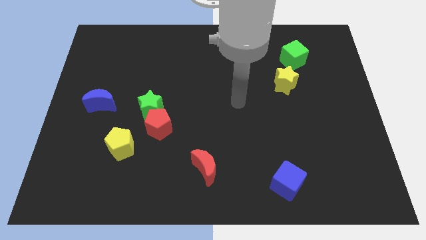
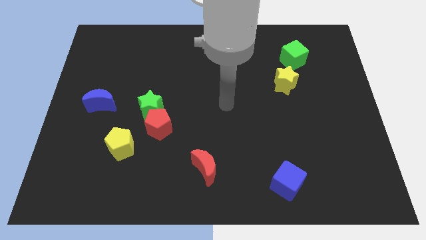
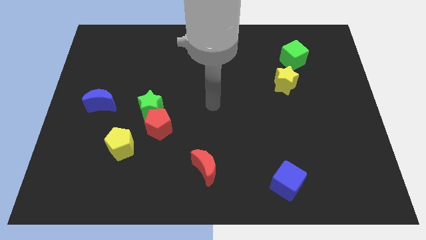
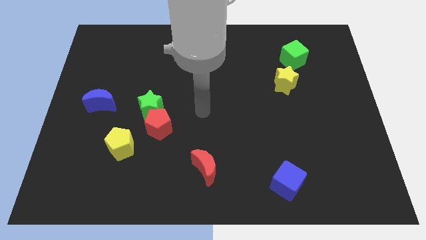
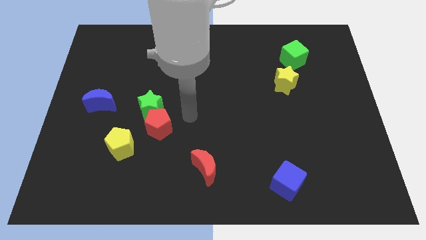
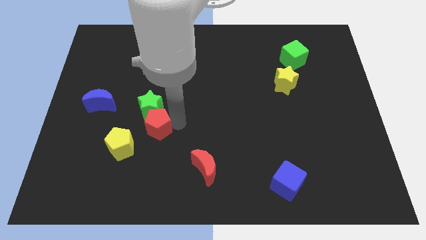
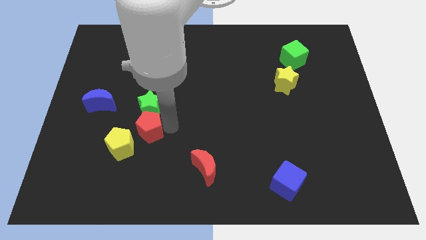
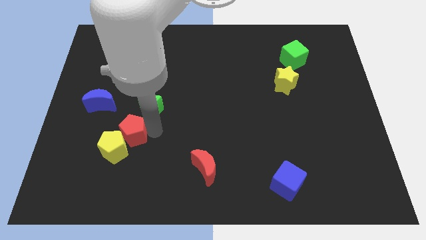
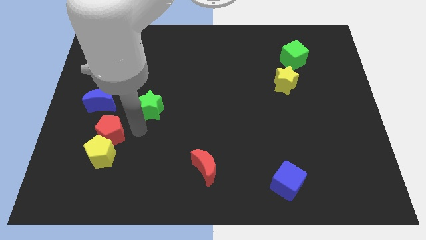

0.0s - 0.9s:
move the green star away from the red pentagon

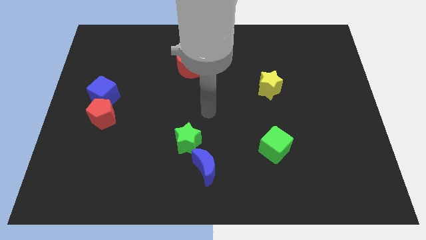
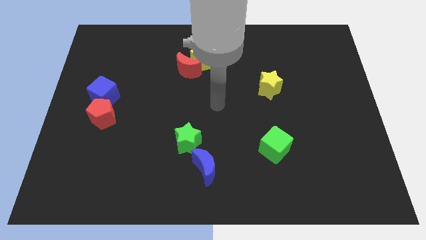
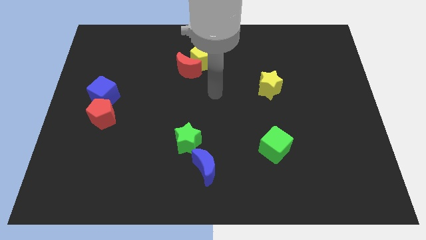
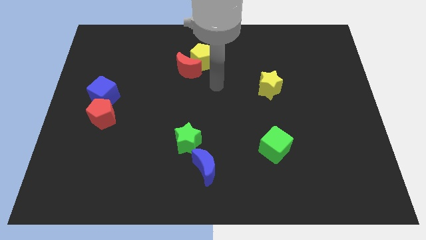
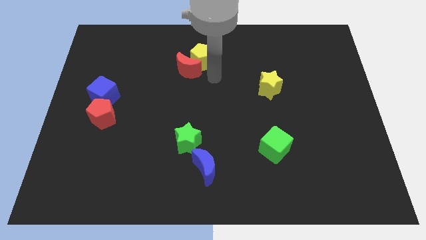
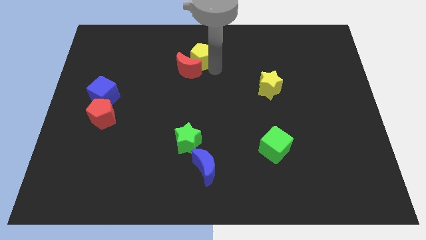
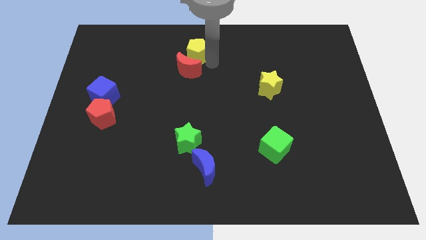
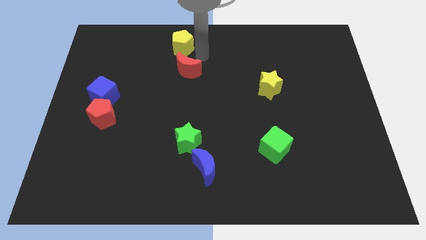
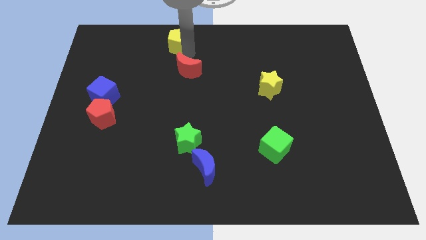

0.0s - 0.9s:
separate the red moon from the yellow pentagon

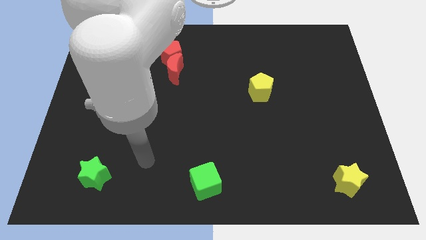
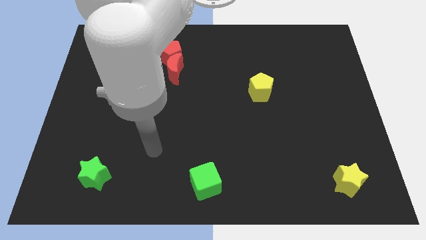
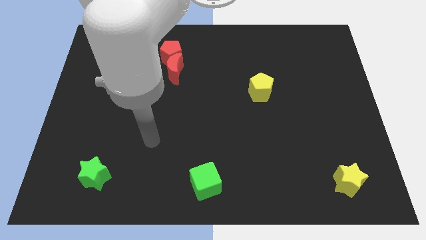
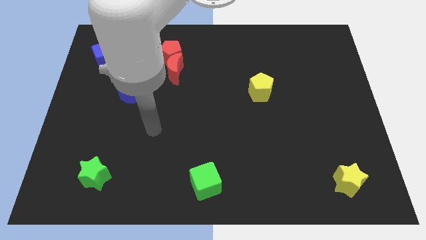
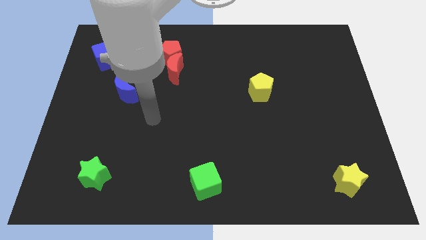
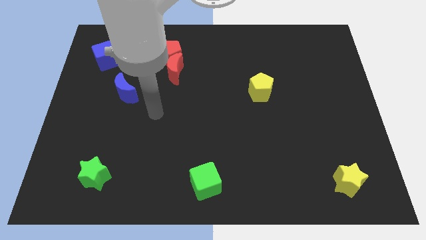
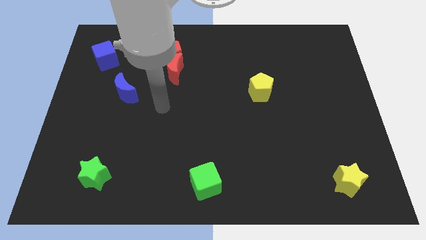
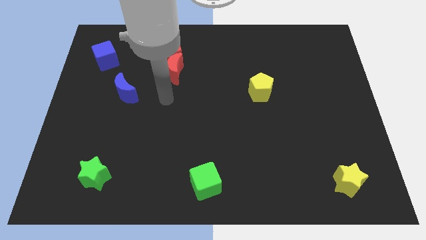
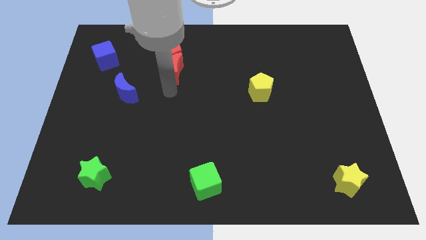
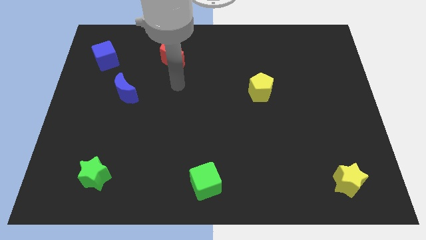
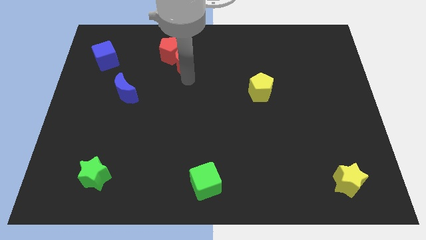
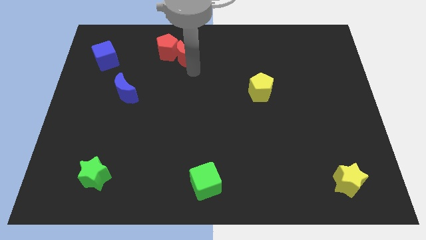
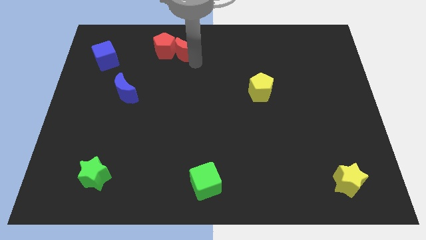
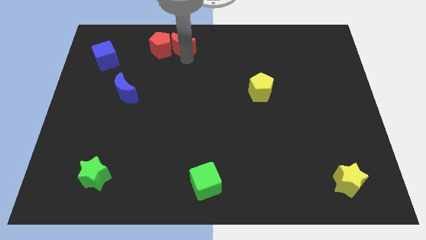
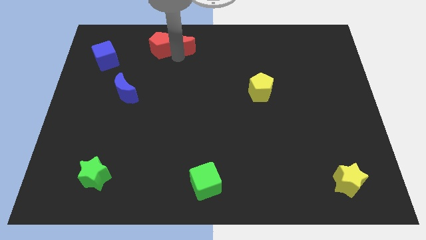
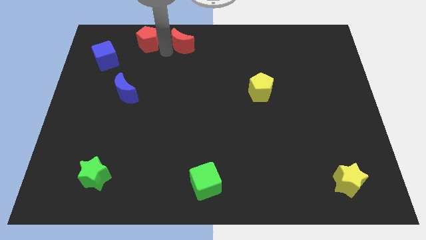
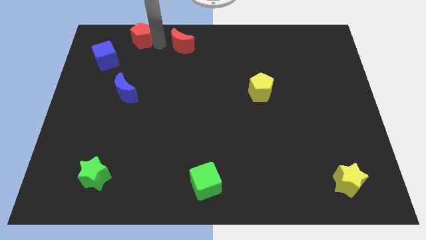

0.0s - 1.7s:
separate the red moon from the red pentagon

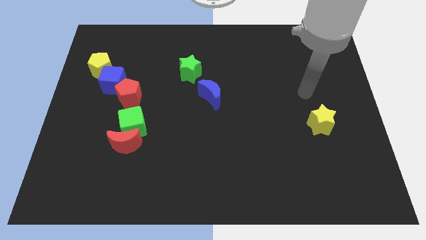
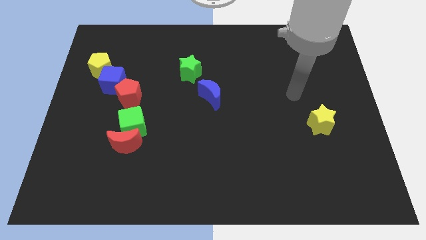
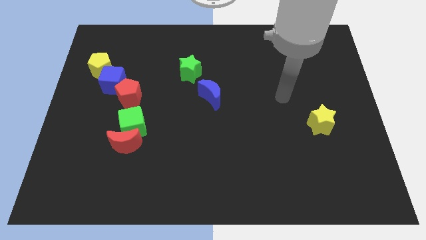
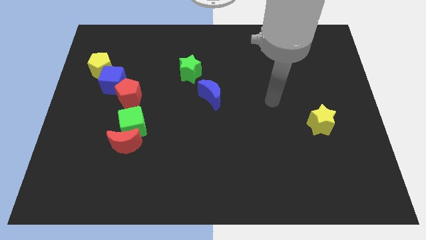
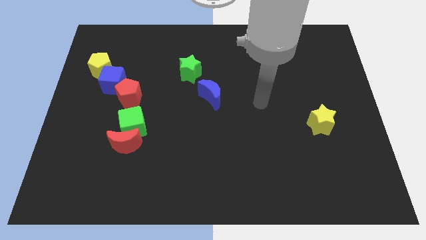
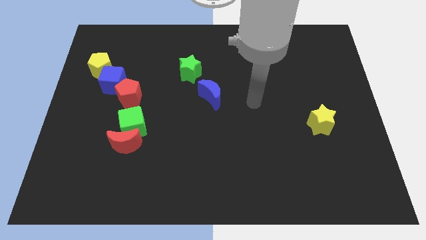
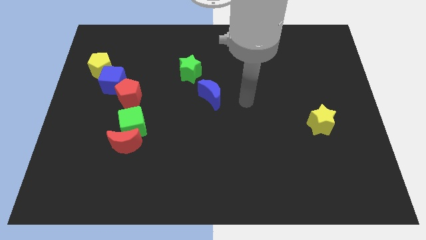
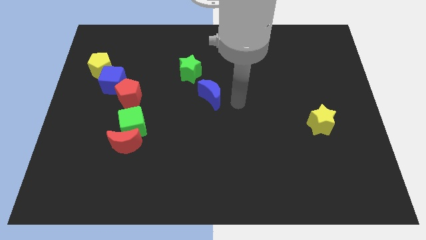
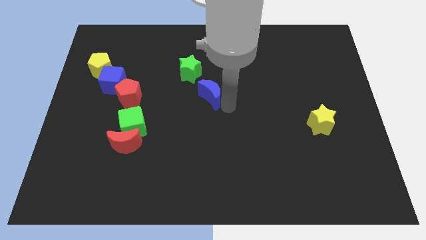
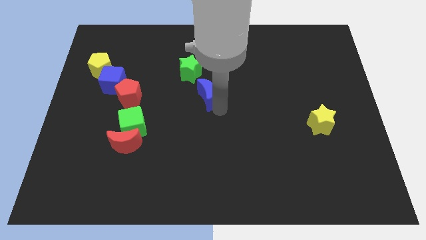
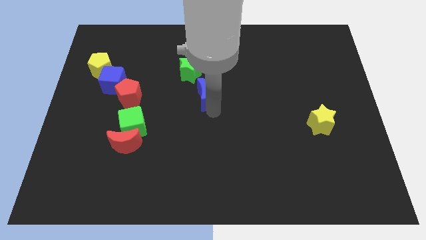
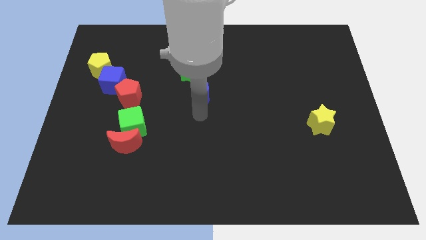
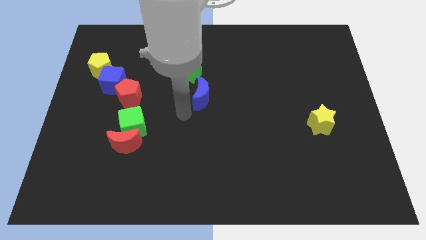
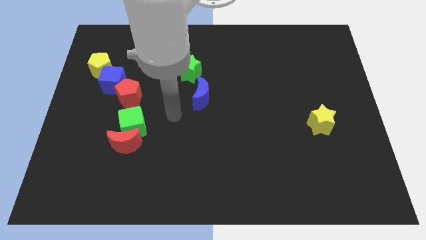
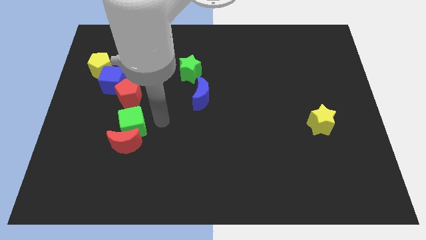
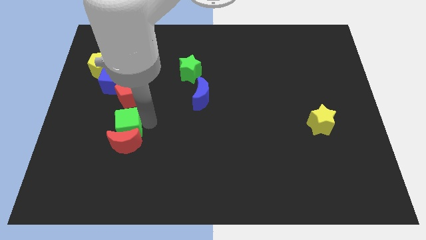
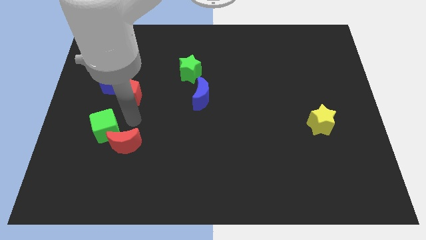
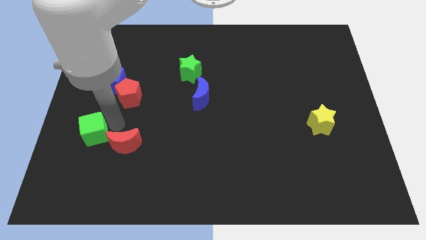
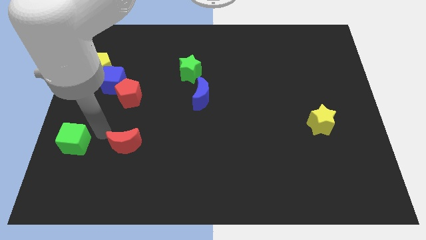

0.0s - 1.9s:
move the red moon away from the green cube

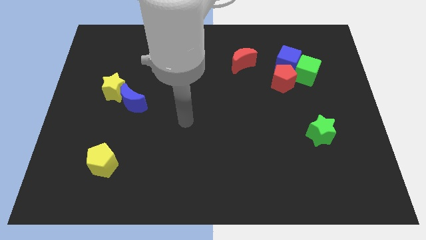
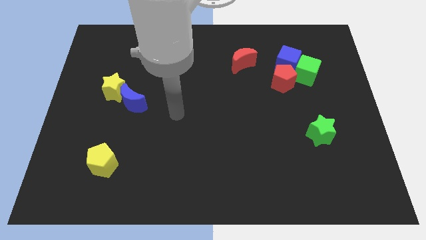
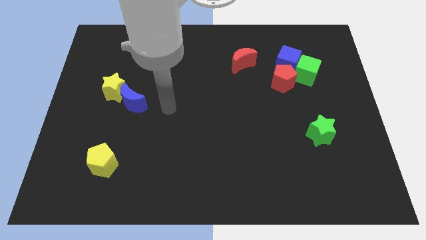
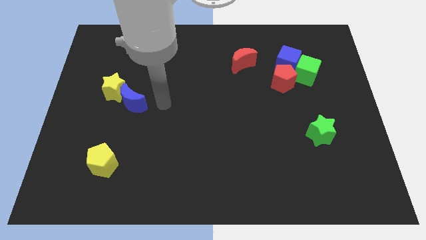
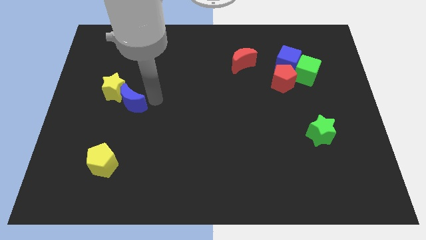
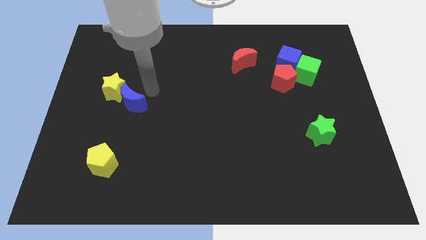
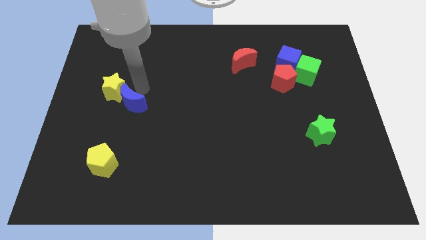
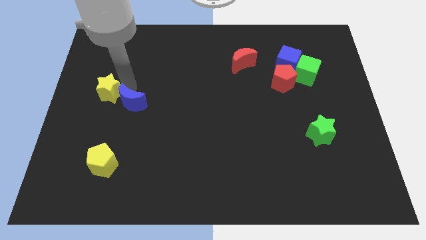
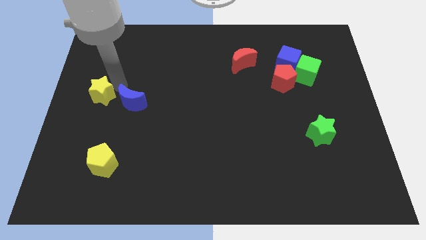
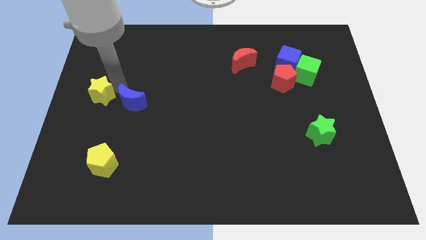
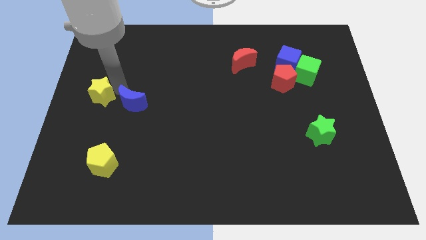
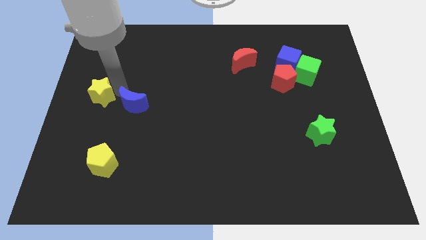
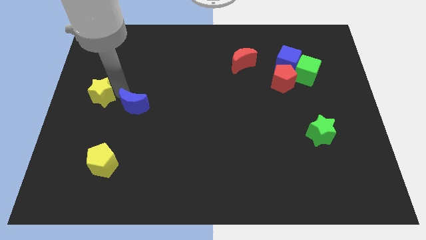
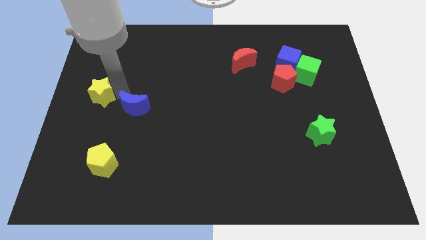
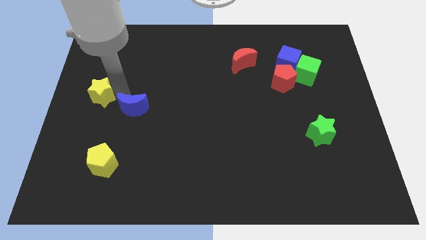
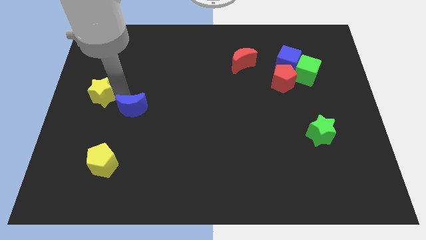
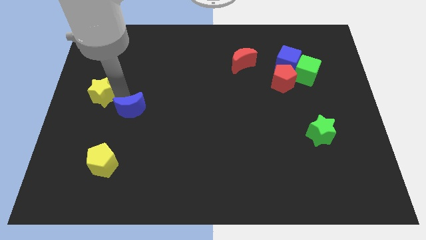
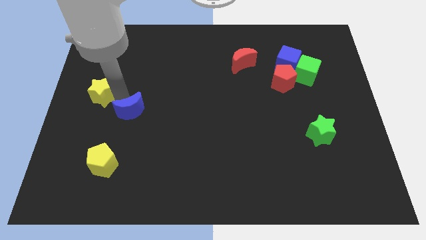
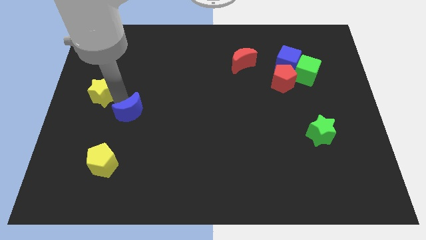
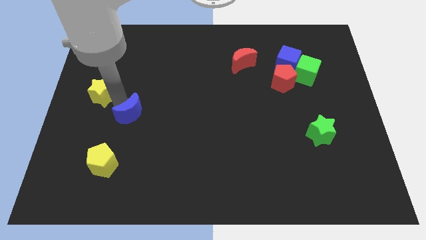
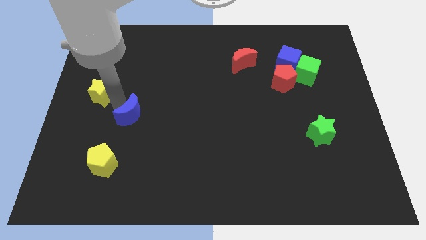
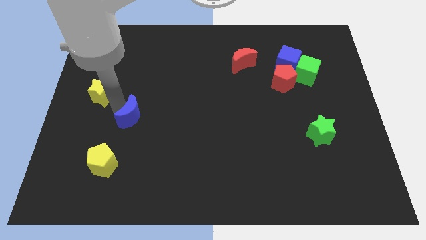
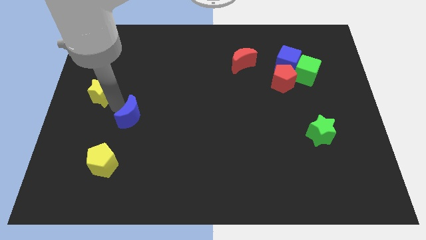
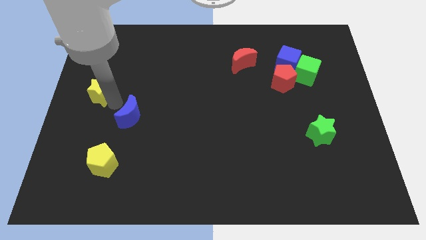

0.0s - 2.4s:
separate the blue moon from the yellow star

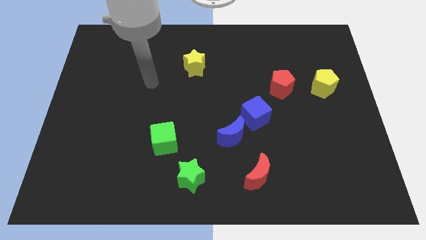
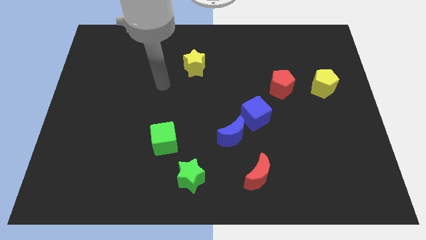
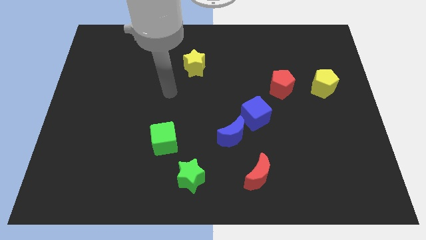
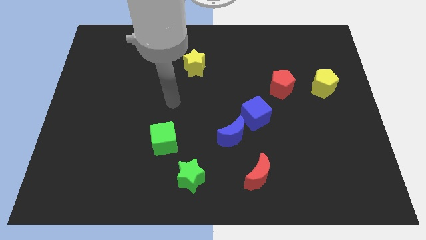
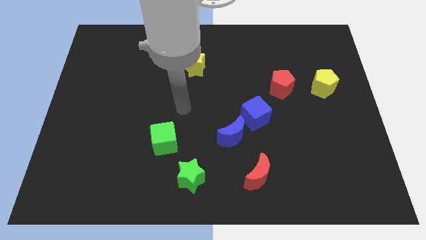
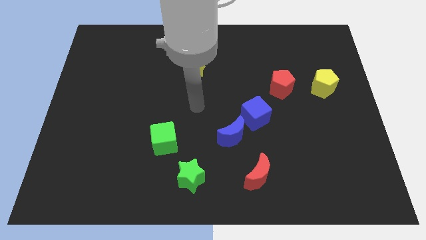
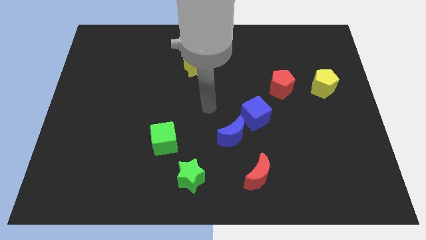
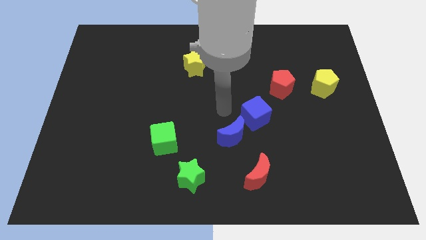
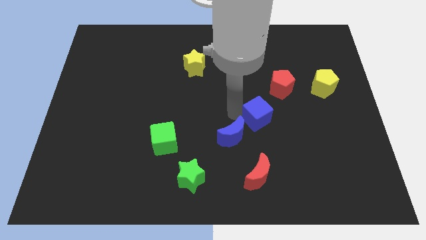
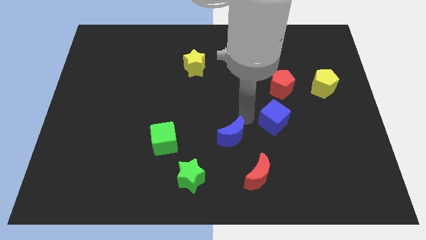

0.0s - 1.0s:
move the blue moon away from the blue cube

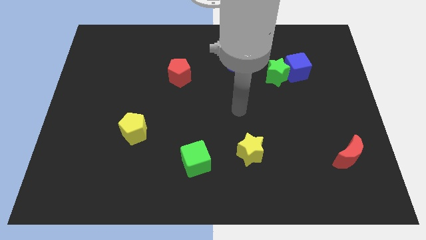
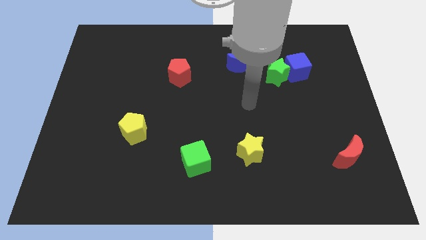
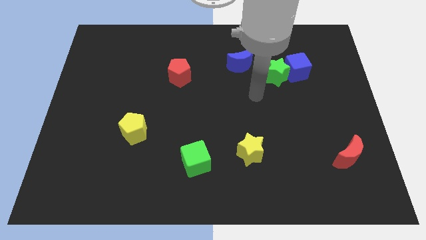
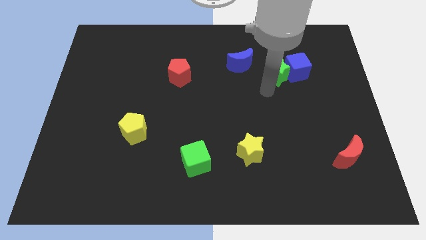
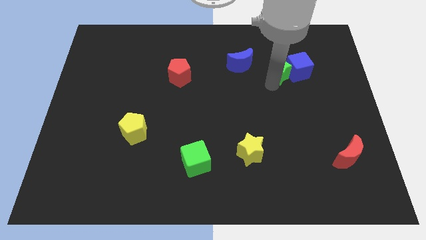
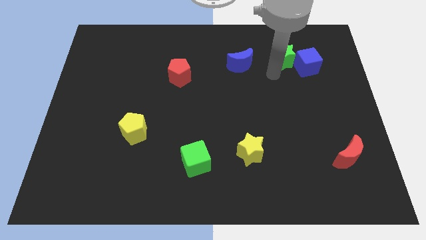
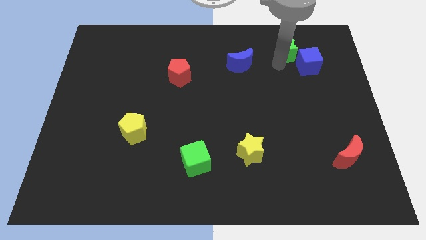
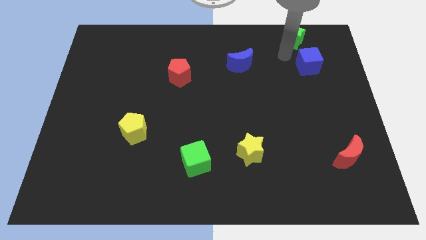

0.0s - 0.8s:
pull the blue cube apart from the green star
